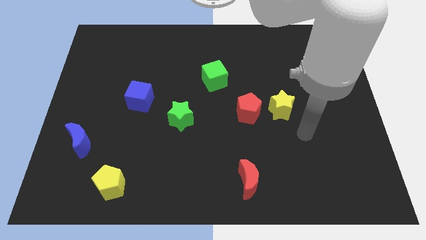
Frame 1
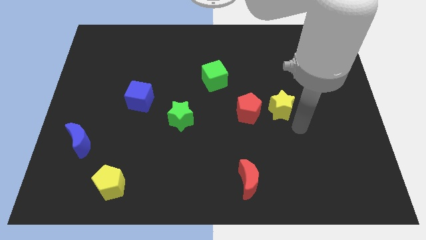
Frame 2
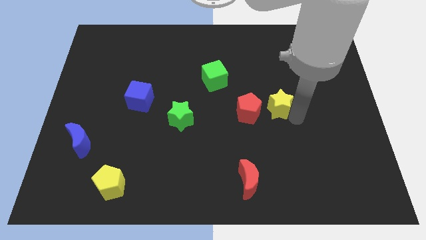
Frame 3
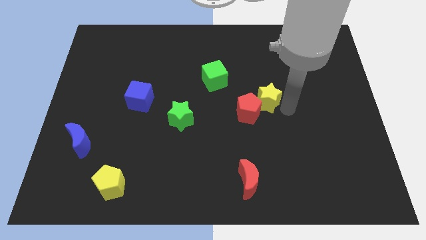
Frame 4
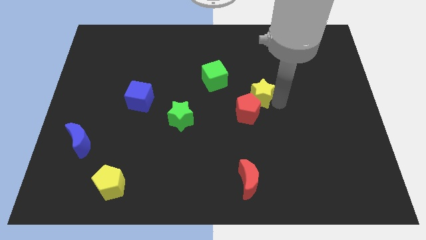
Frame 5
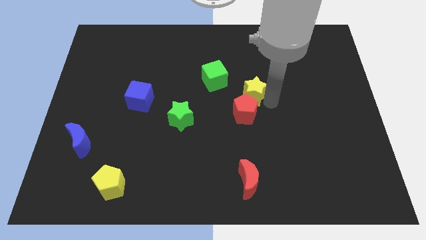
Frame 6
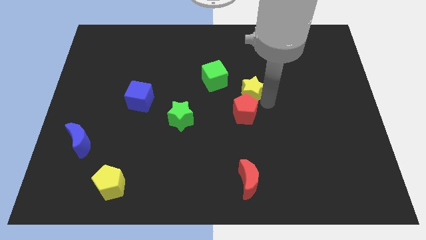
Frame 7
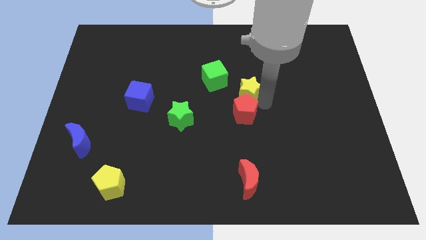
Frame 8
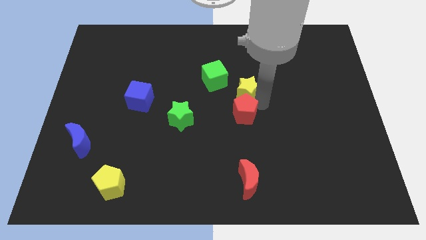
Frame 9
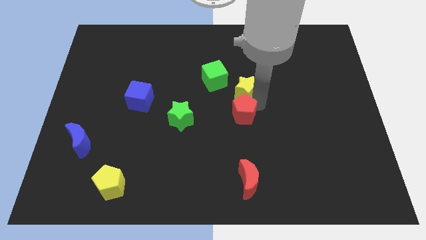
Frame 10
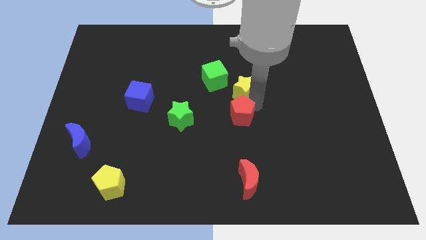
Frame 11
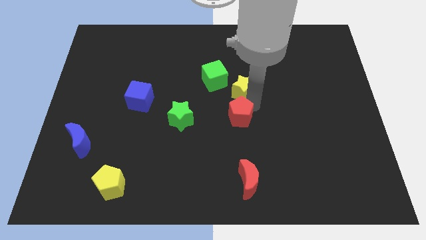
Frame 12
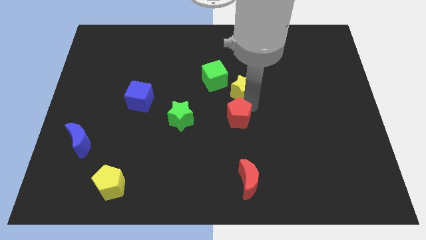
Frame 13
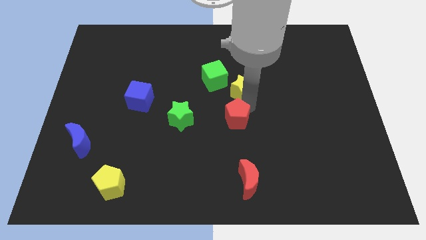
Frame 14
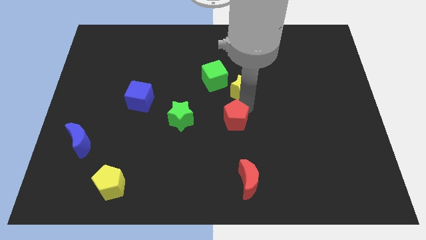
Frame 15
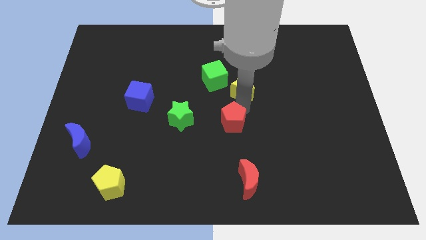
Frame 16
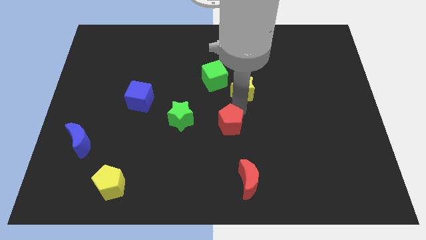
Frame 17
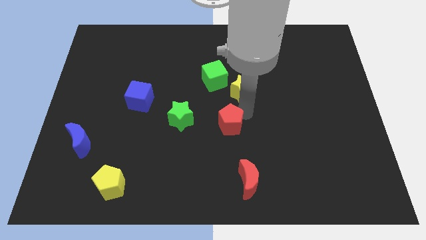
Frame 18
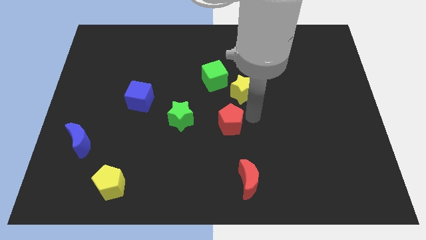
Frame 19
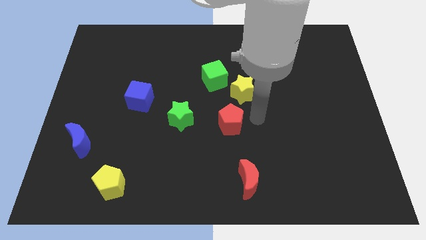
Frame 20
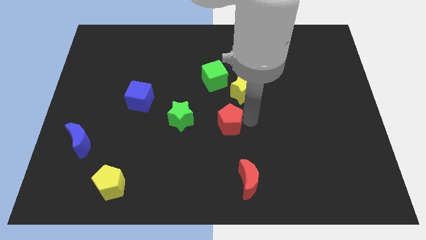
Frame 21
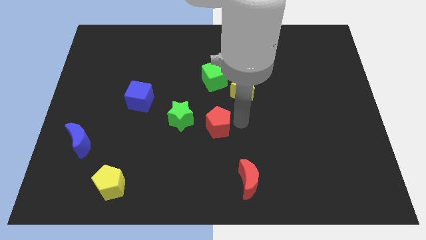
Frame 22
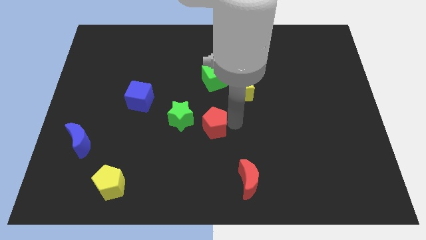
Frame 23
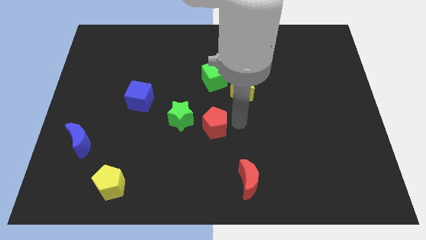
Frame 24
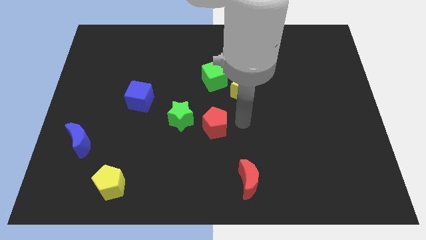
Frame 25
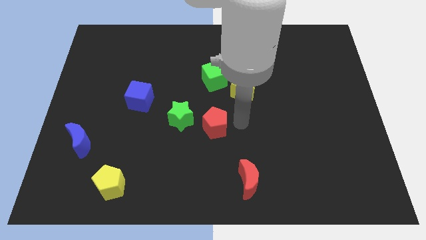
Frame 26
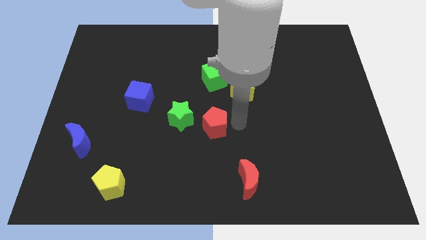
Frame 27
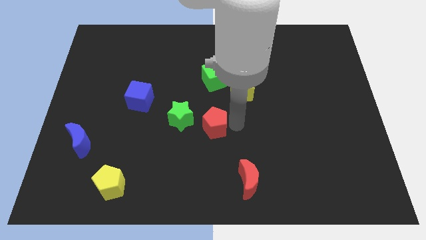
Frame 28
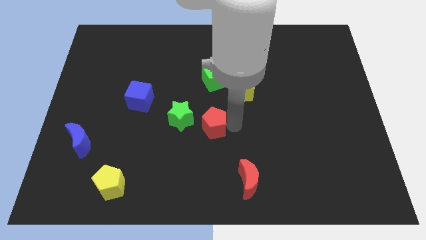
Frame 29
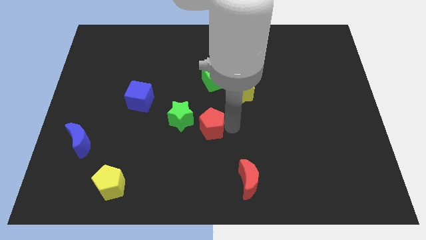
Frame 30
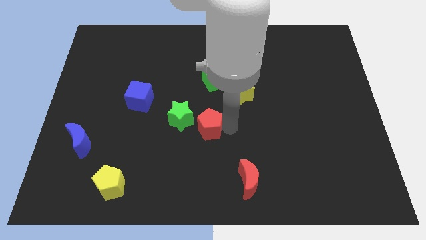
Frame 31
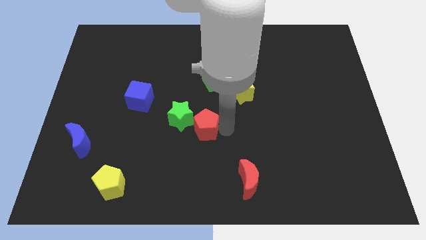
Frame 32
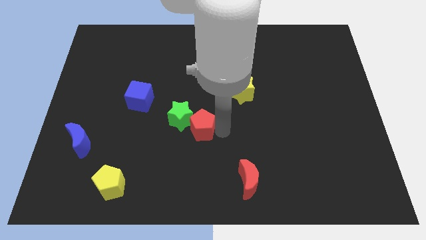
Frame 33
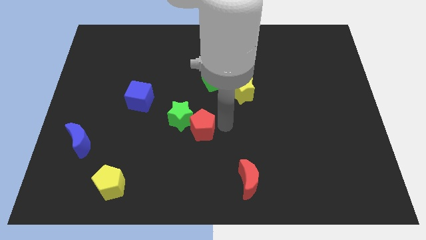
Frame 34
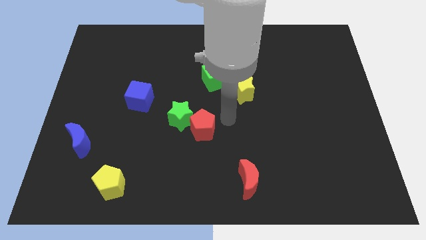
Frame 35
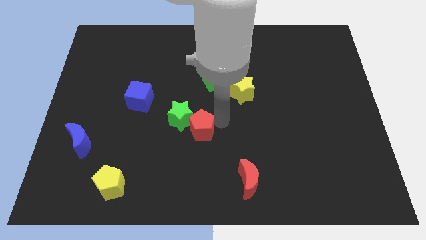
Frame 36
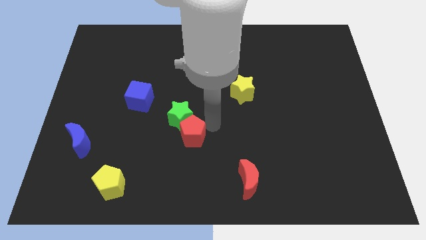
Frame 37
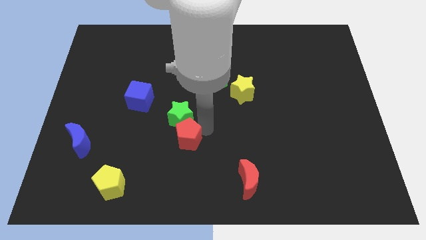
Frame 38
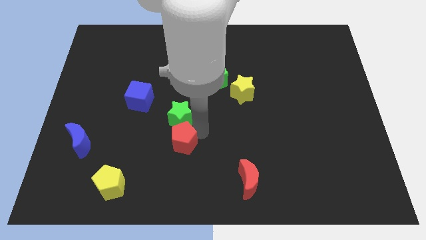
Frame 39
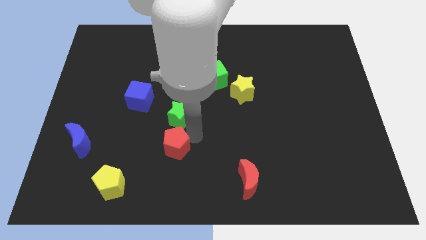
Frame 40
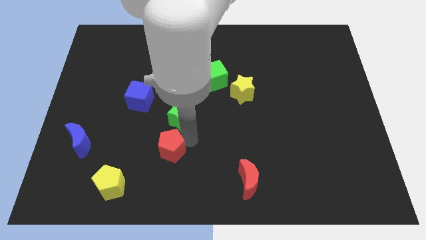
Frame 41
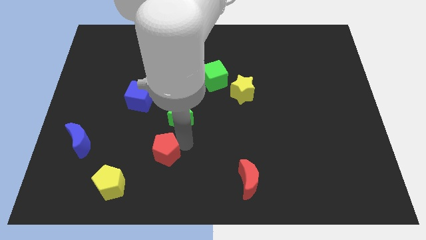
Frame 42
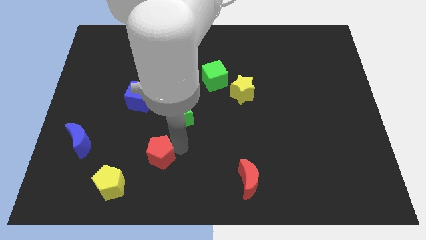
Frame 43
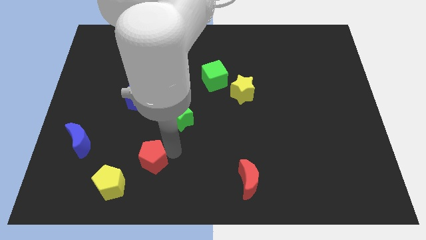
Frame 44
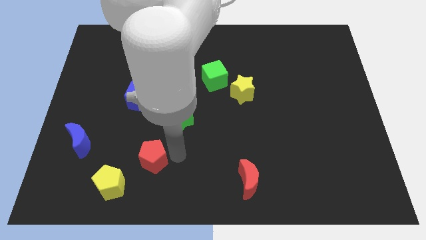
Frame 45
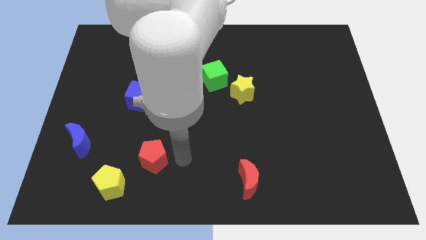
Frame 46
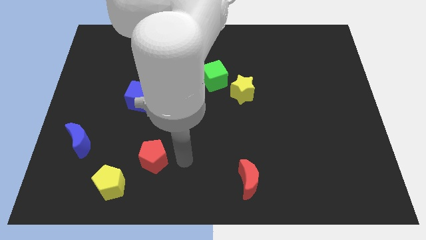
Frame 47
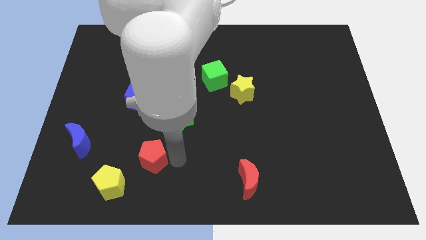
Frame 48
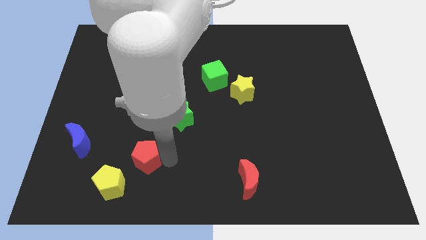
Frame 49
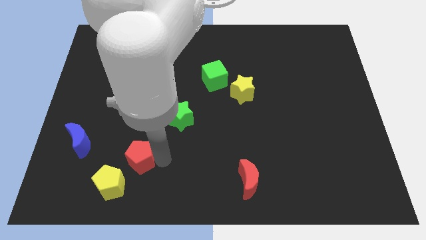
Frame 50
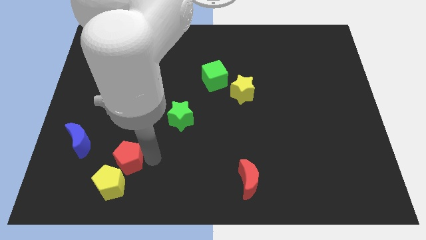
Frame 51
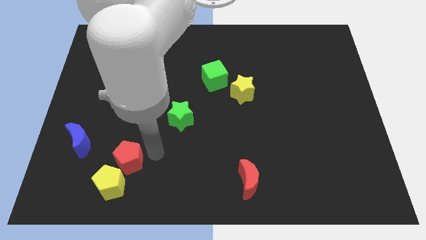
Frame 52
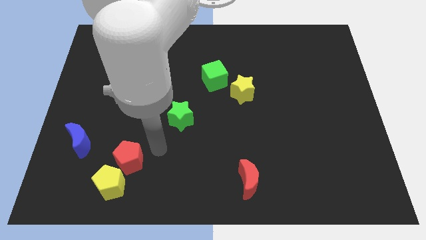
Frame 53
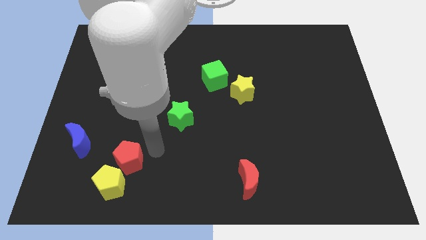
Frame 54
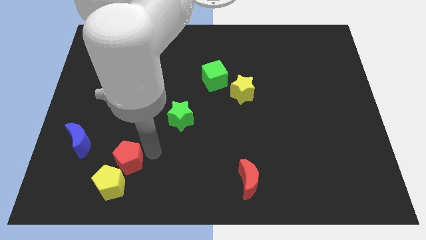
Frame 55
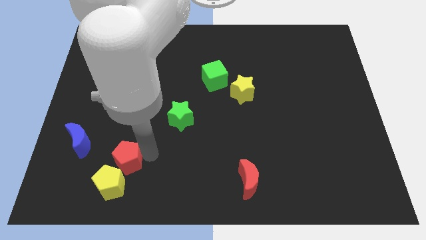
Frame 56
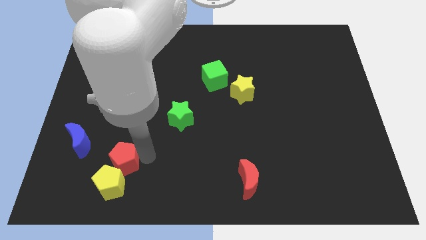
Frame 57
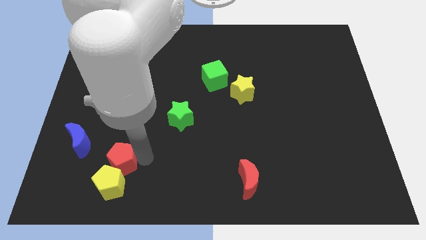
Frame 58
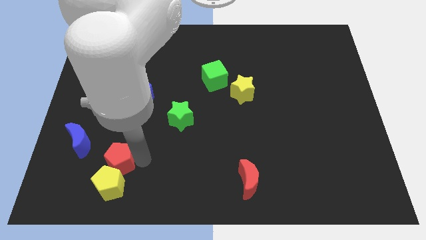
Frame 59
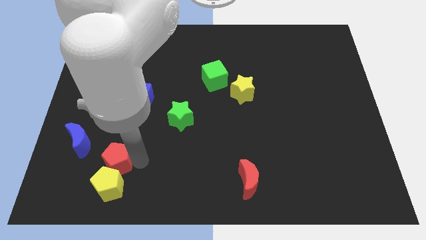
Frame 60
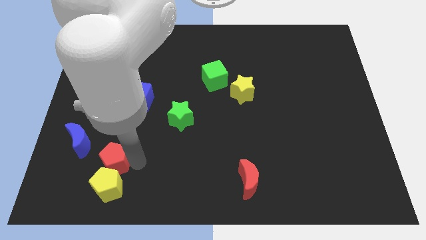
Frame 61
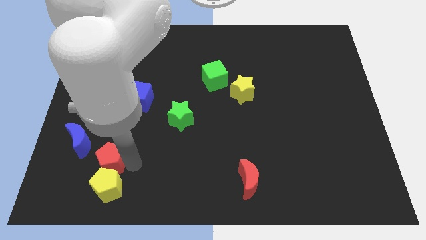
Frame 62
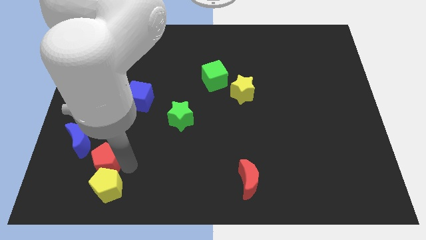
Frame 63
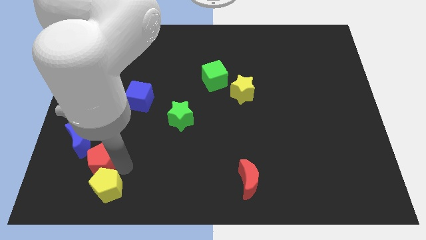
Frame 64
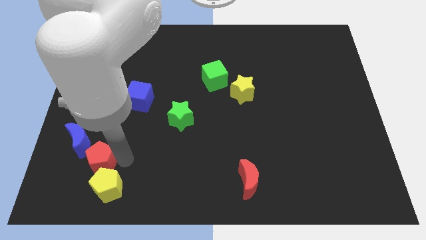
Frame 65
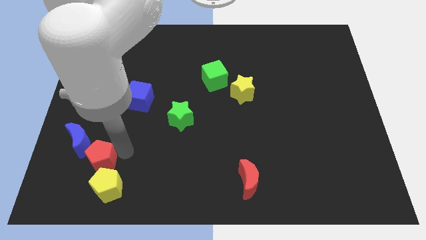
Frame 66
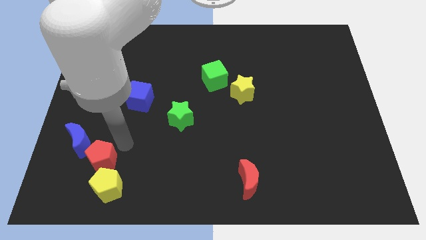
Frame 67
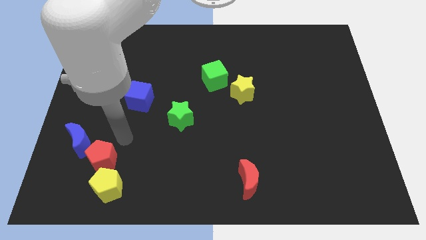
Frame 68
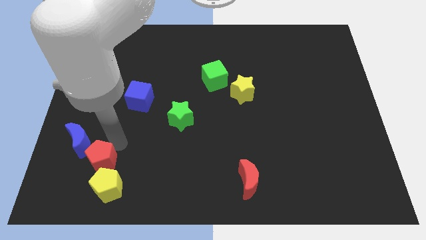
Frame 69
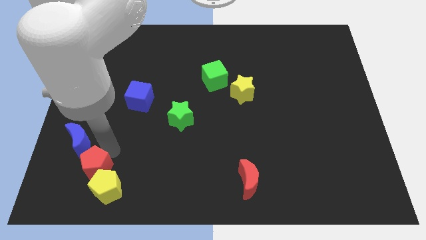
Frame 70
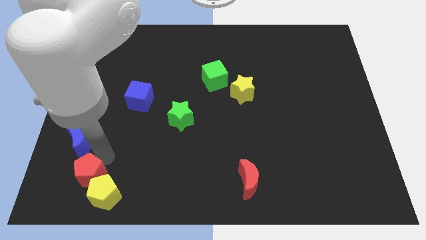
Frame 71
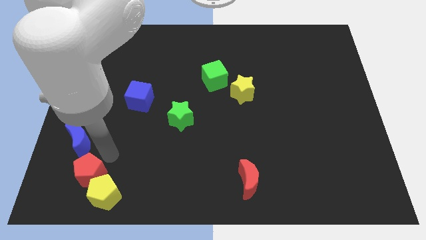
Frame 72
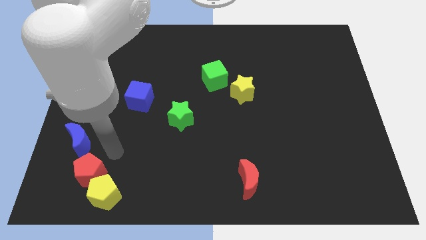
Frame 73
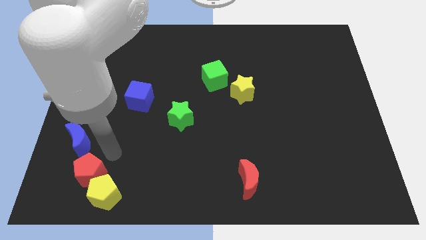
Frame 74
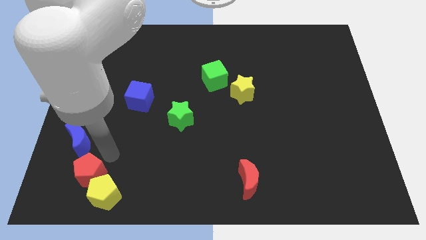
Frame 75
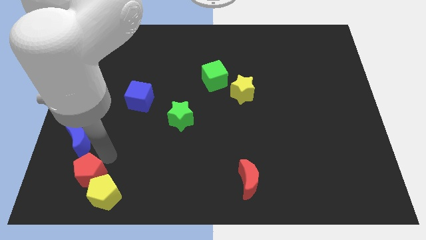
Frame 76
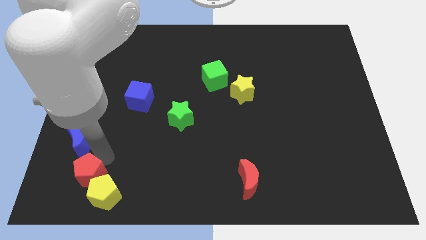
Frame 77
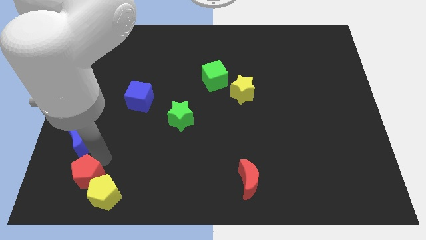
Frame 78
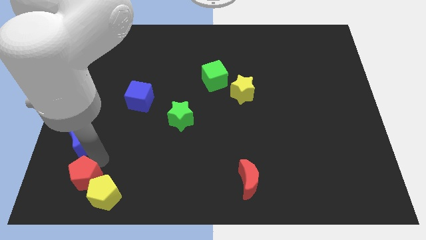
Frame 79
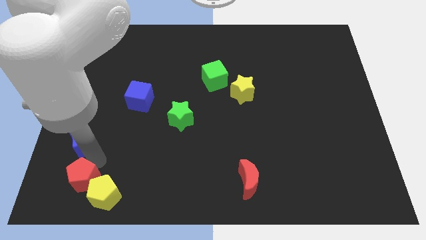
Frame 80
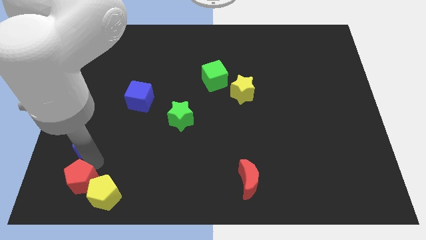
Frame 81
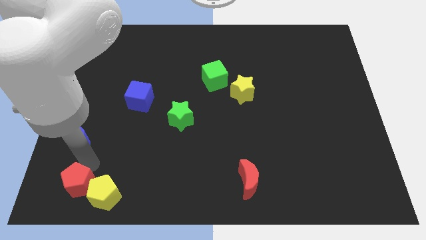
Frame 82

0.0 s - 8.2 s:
move the red pentagon to the bottom left of the board
